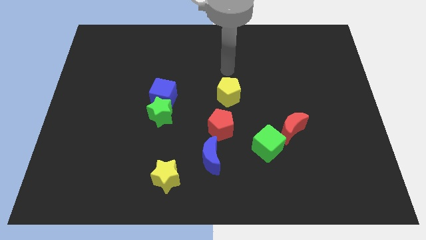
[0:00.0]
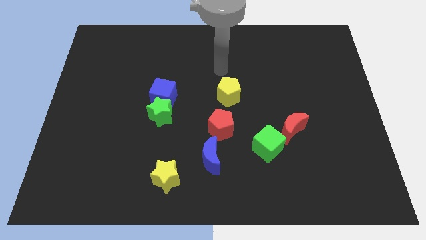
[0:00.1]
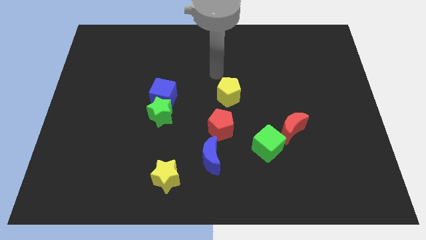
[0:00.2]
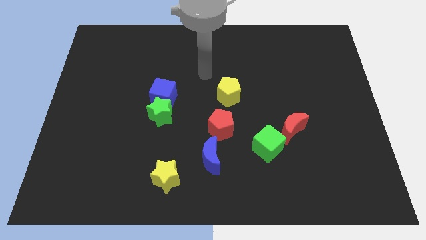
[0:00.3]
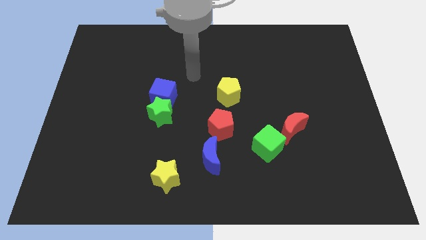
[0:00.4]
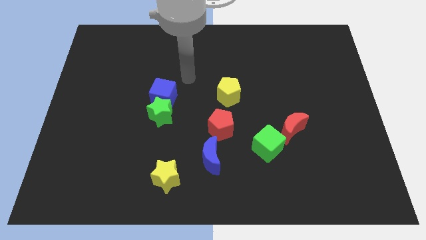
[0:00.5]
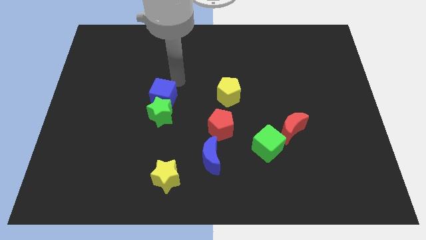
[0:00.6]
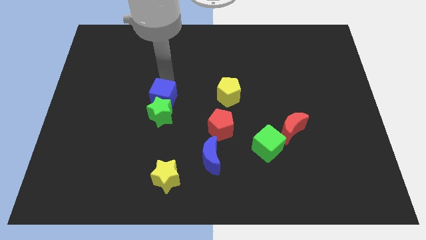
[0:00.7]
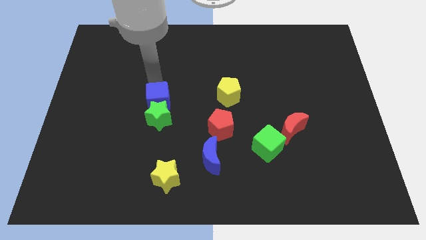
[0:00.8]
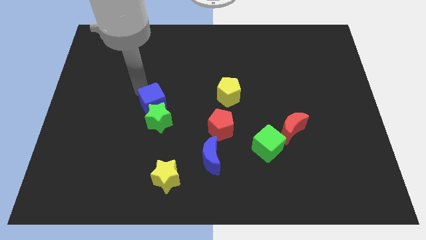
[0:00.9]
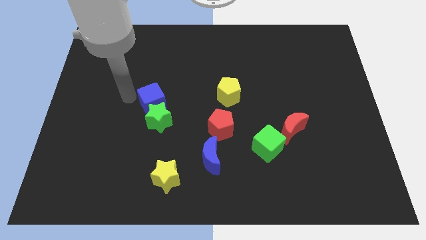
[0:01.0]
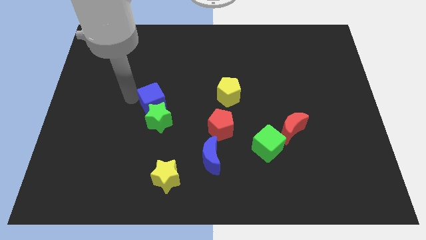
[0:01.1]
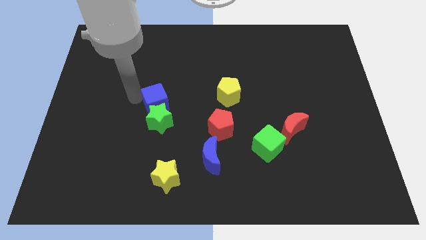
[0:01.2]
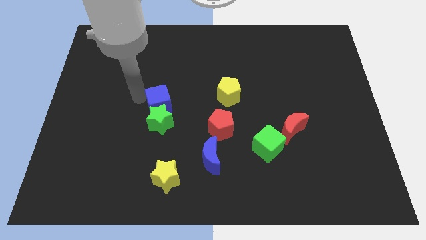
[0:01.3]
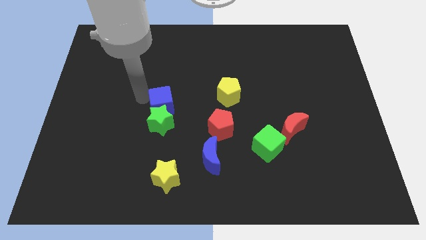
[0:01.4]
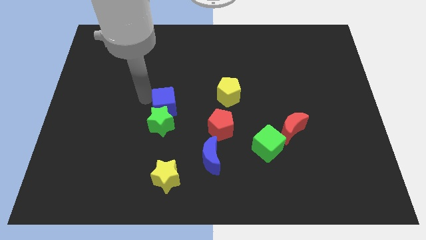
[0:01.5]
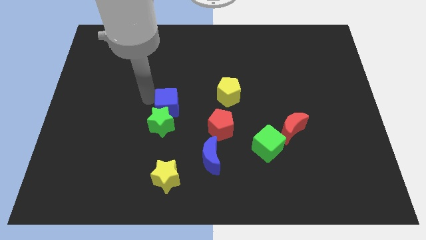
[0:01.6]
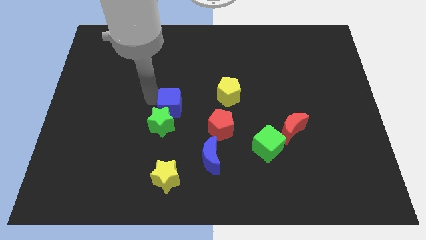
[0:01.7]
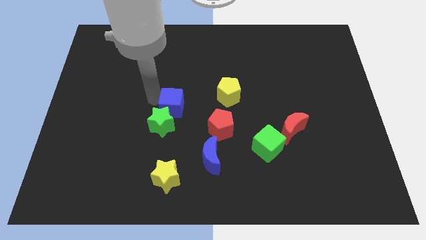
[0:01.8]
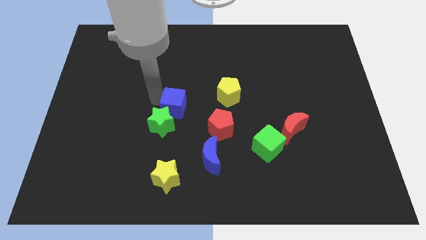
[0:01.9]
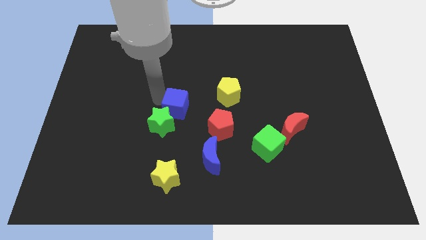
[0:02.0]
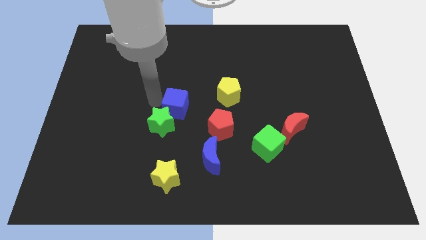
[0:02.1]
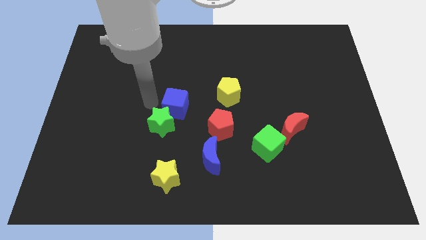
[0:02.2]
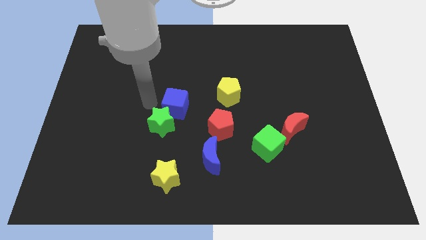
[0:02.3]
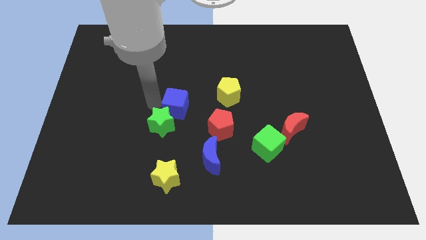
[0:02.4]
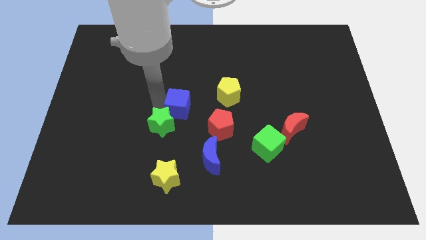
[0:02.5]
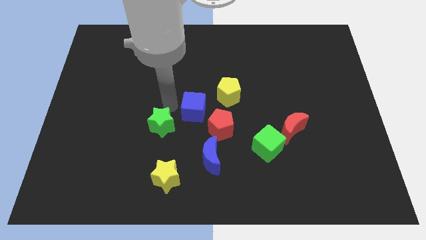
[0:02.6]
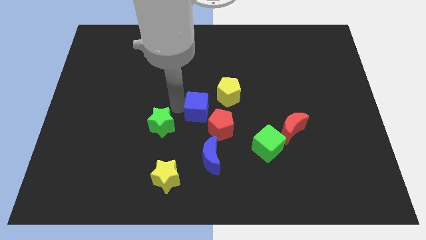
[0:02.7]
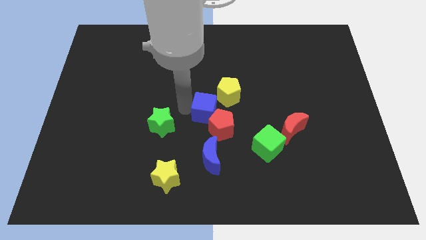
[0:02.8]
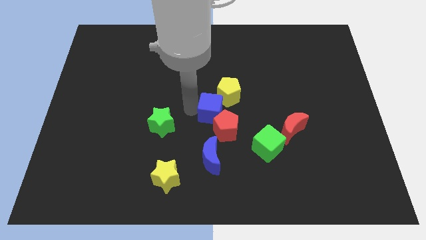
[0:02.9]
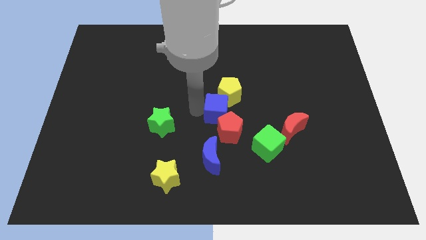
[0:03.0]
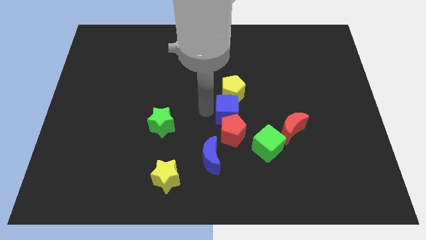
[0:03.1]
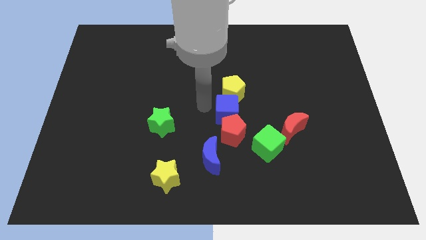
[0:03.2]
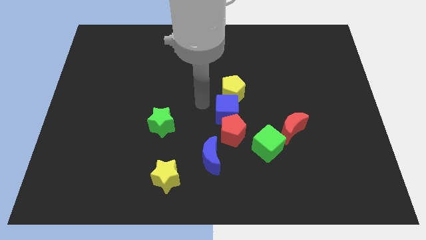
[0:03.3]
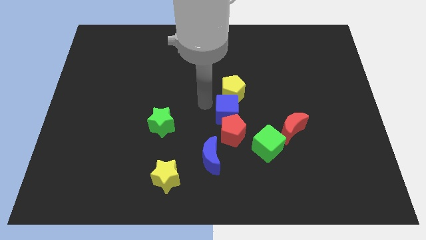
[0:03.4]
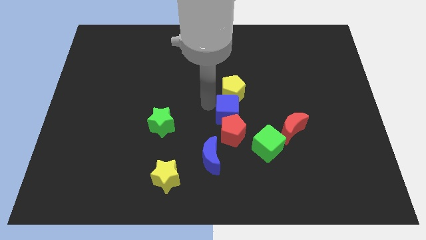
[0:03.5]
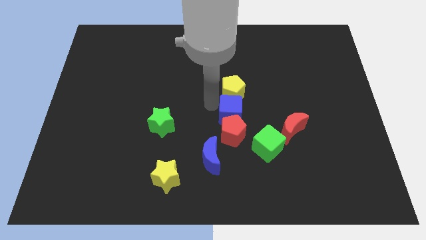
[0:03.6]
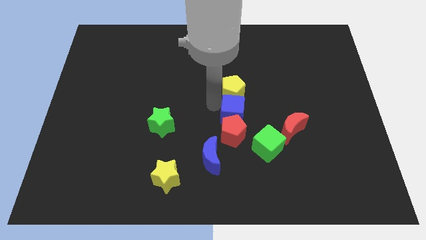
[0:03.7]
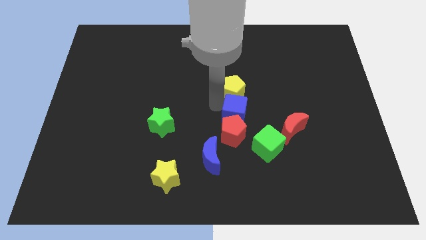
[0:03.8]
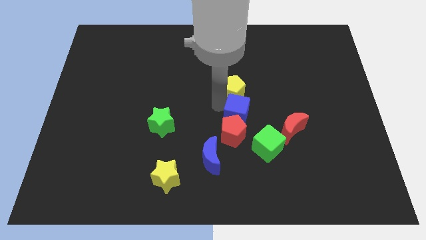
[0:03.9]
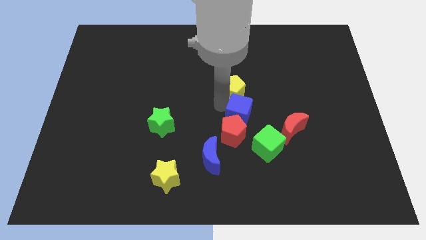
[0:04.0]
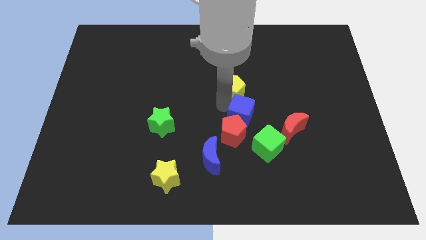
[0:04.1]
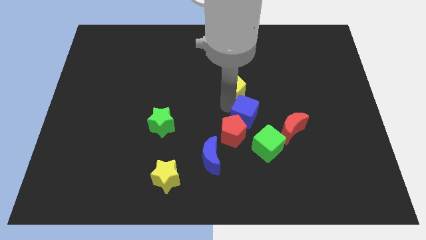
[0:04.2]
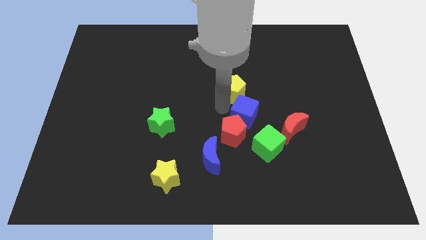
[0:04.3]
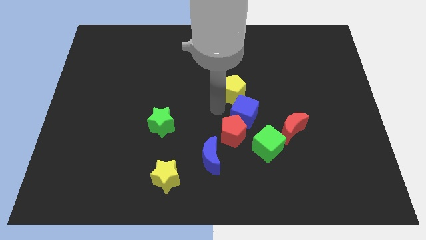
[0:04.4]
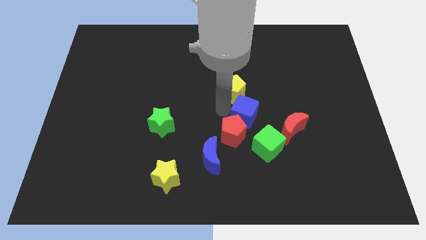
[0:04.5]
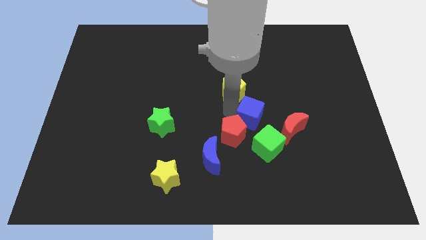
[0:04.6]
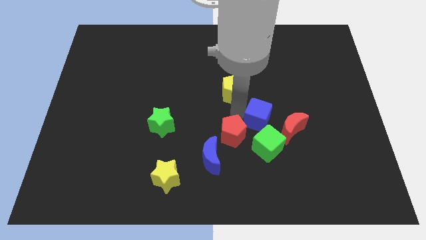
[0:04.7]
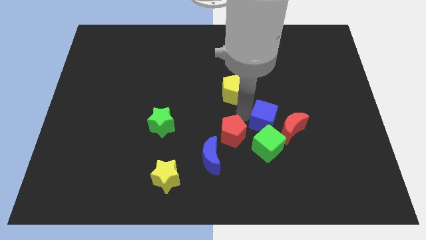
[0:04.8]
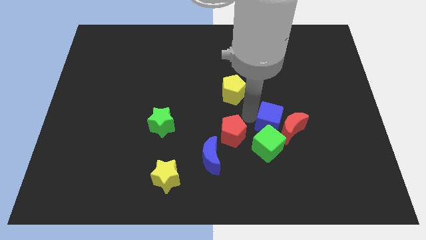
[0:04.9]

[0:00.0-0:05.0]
slide the blue cube close to the red moon

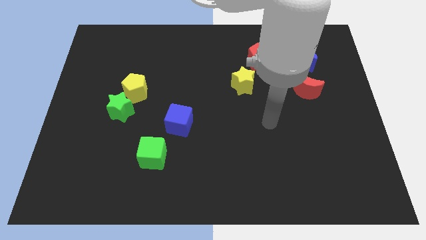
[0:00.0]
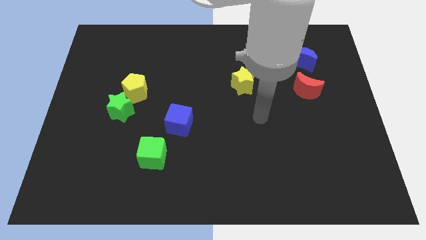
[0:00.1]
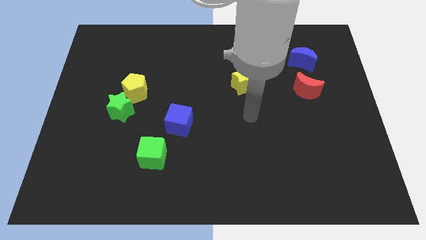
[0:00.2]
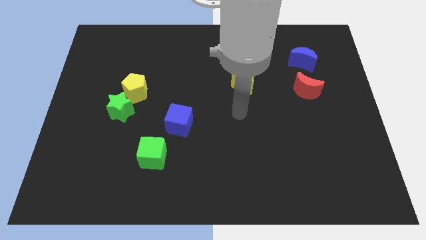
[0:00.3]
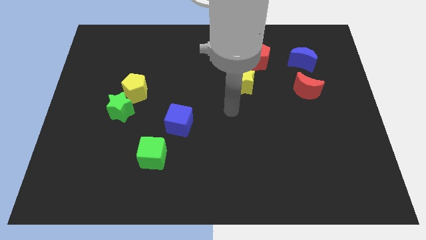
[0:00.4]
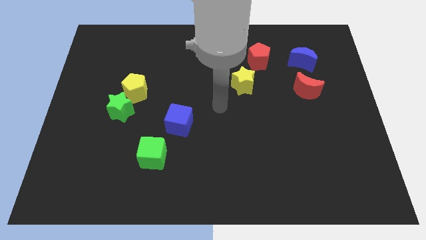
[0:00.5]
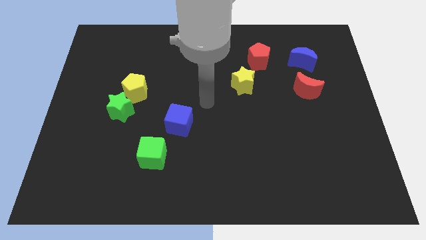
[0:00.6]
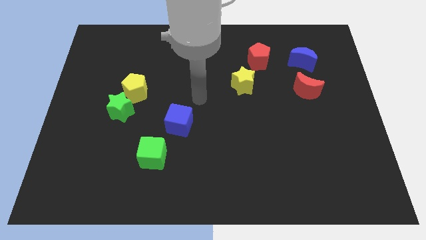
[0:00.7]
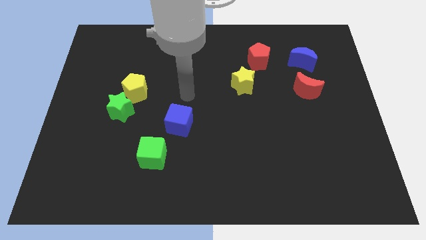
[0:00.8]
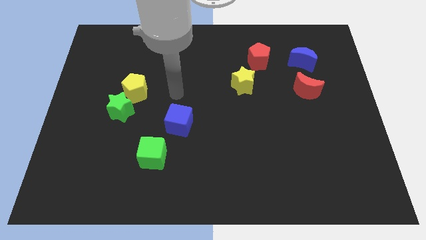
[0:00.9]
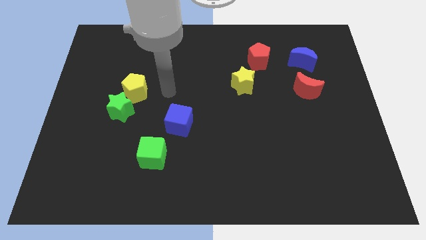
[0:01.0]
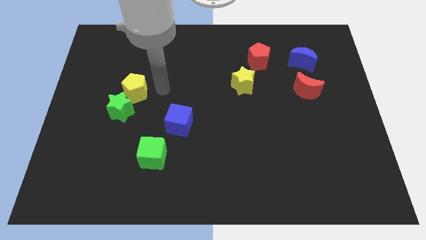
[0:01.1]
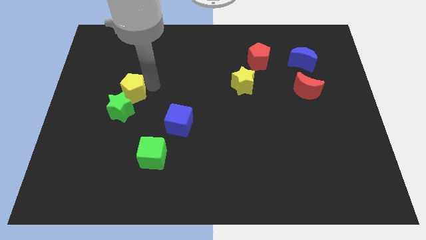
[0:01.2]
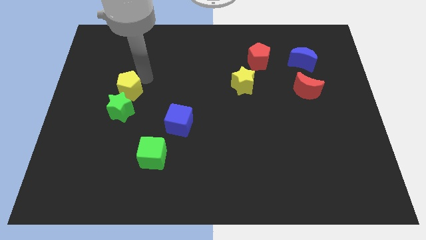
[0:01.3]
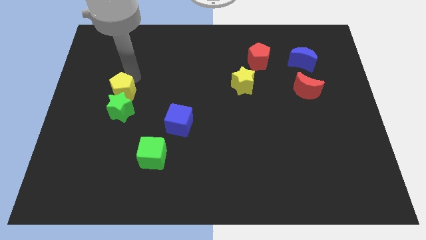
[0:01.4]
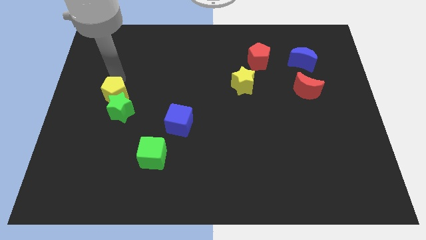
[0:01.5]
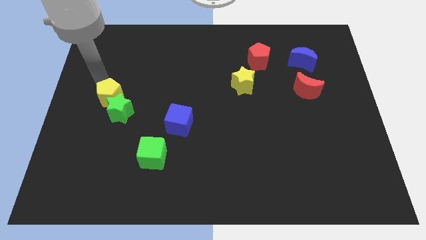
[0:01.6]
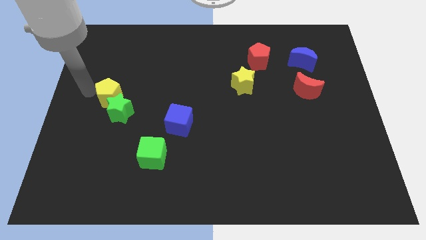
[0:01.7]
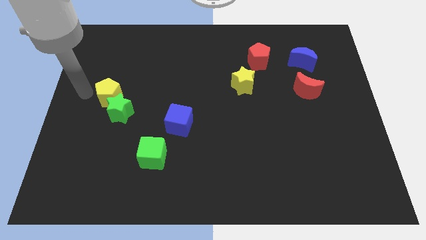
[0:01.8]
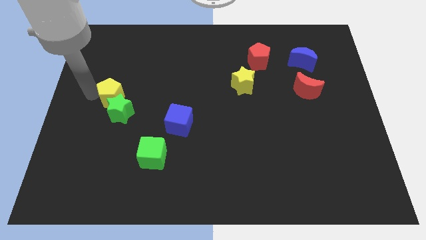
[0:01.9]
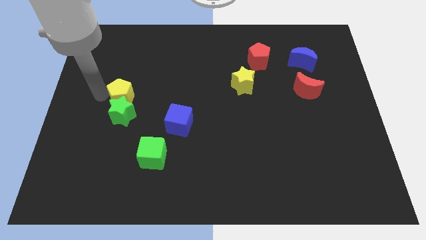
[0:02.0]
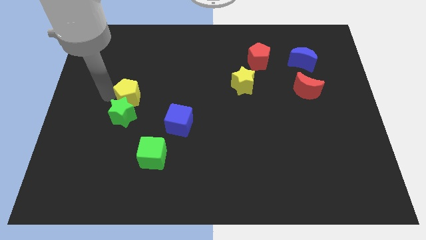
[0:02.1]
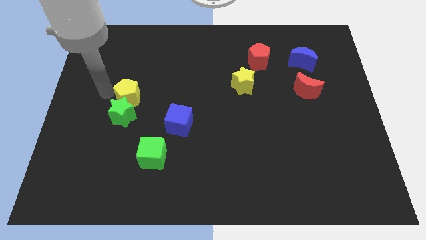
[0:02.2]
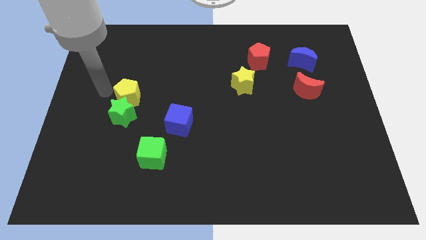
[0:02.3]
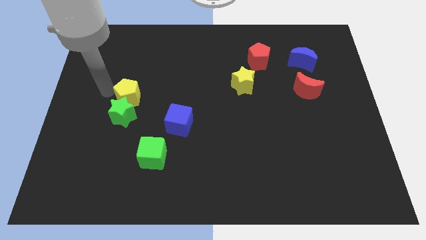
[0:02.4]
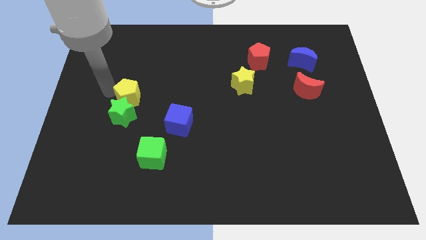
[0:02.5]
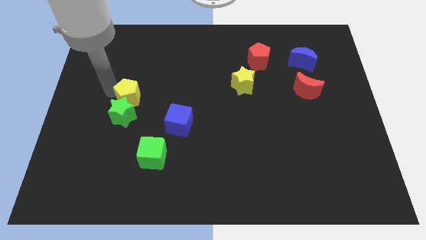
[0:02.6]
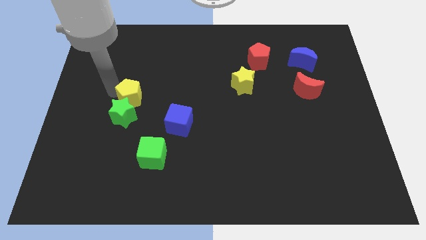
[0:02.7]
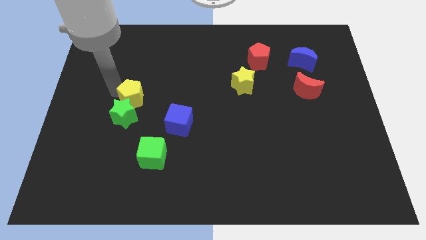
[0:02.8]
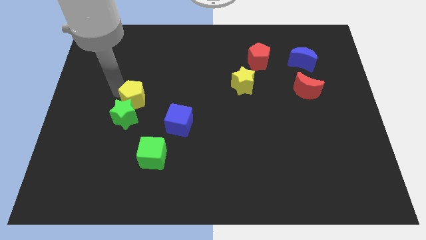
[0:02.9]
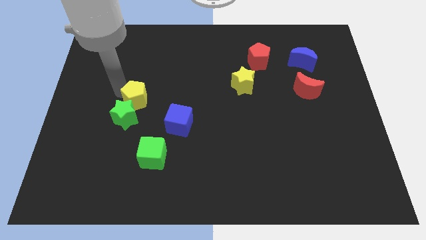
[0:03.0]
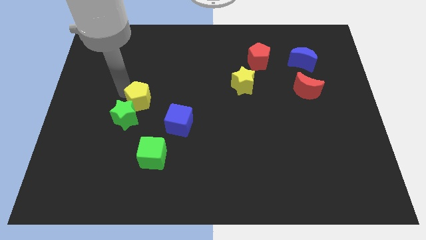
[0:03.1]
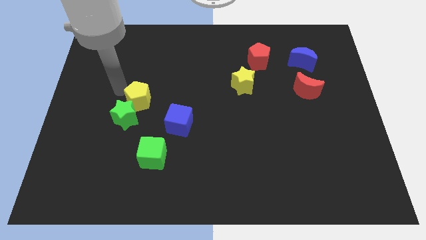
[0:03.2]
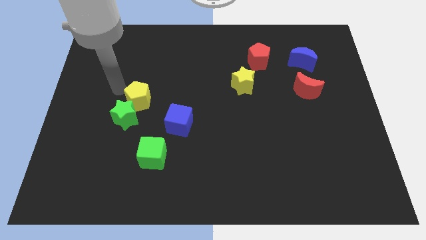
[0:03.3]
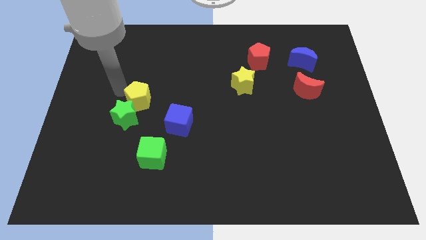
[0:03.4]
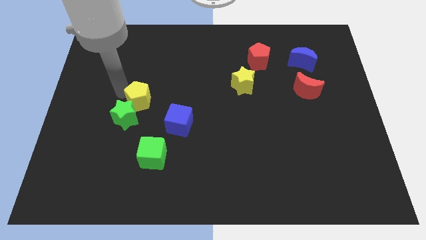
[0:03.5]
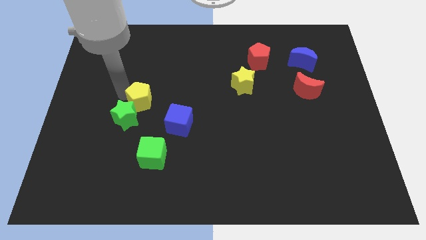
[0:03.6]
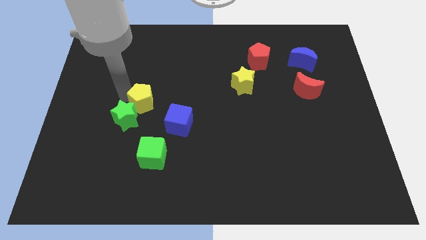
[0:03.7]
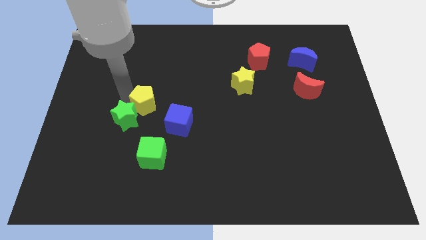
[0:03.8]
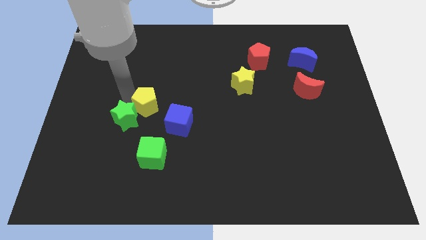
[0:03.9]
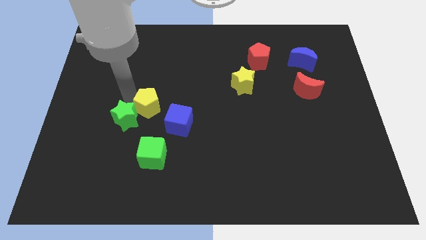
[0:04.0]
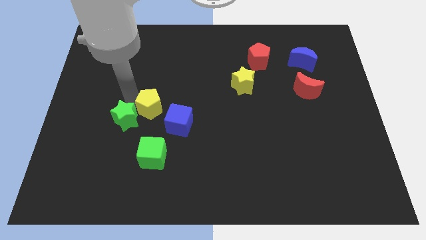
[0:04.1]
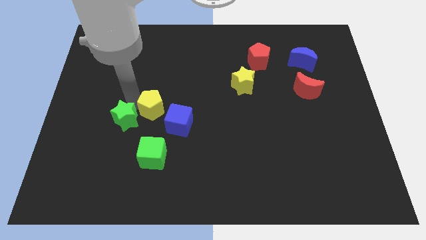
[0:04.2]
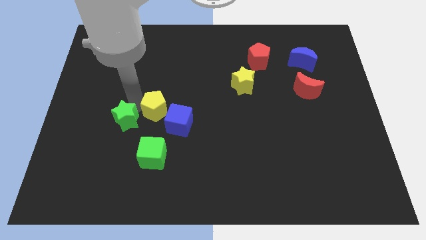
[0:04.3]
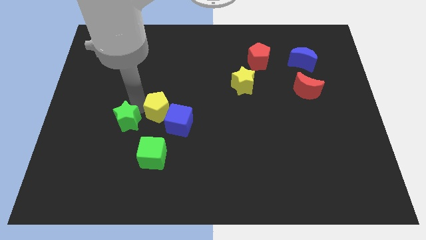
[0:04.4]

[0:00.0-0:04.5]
move the yellow pentagon to the blue cube
